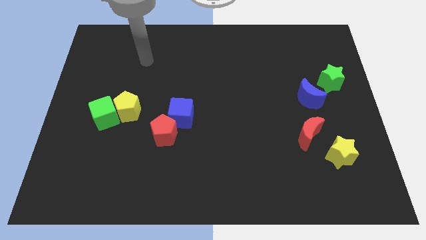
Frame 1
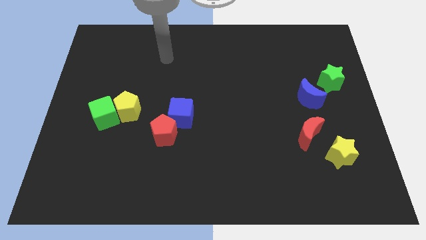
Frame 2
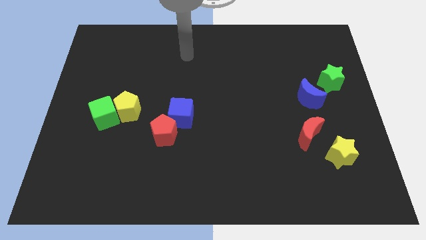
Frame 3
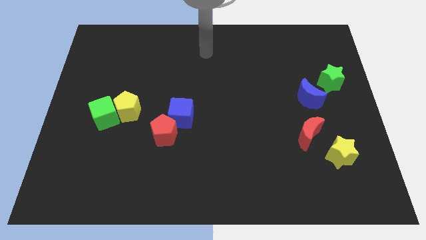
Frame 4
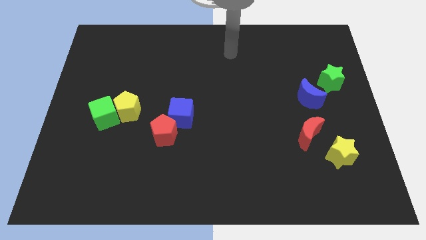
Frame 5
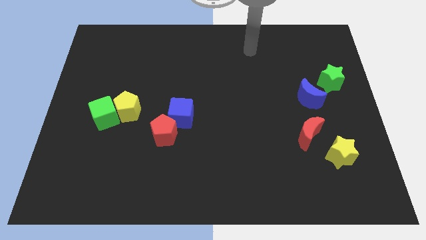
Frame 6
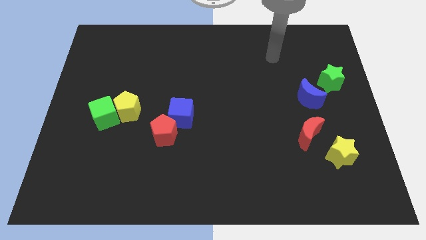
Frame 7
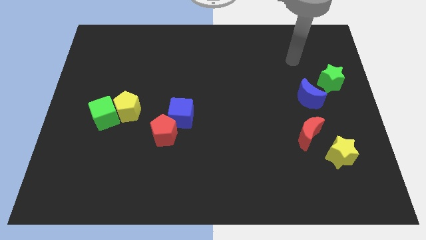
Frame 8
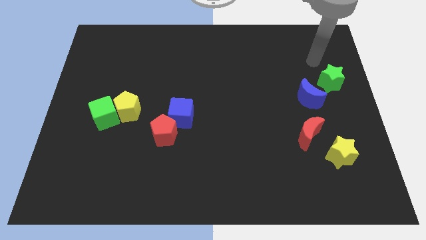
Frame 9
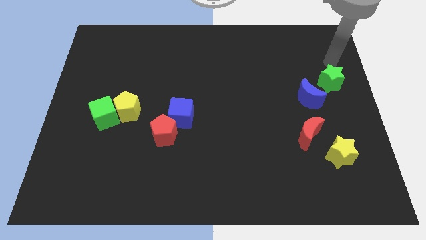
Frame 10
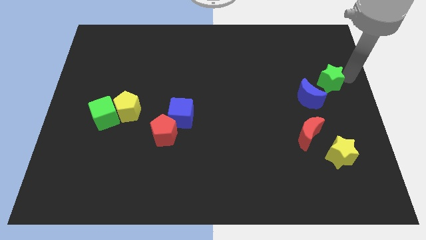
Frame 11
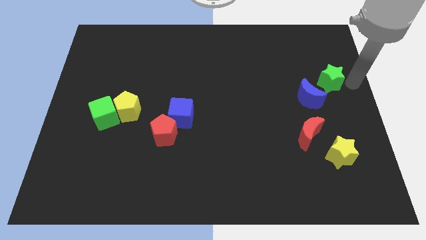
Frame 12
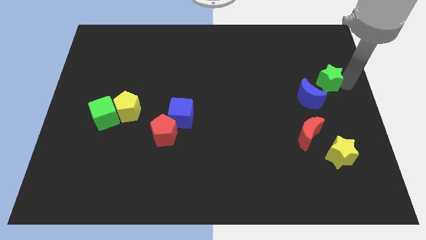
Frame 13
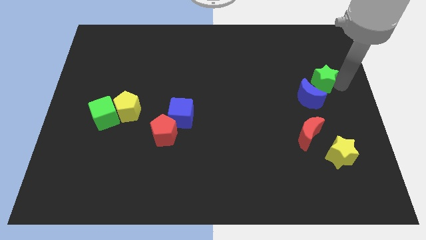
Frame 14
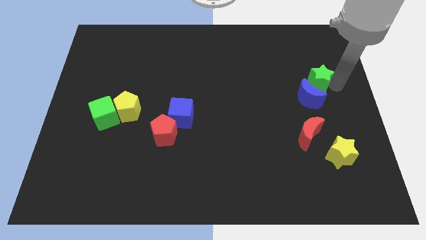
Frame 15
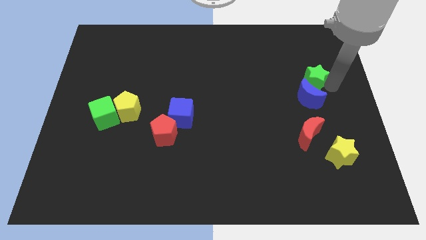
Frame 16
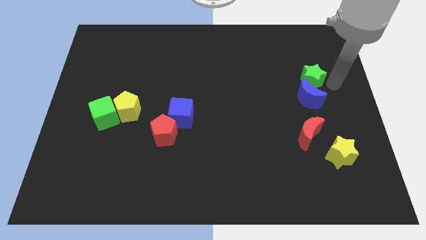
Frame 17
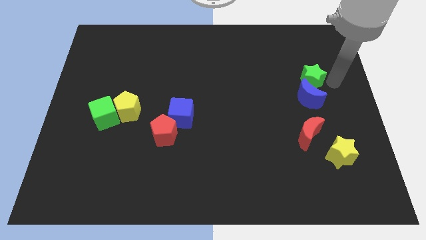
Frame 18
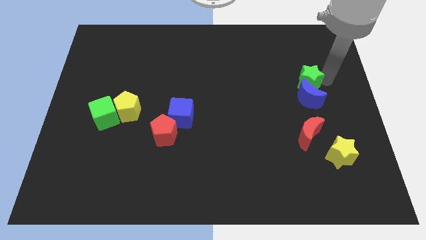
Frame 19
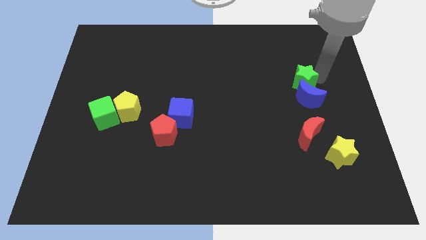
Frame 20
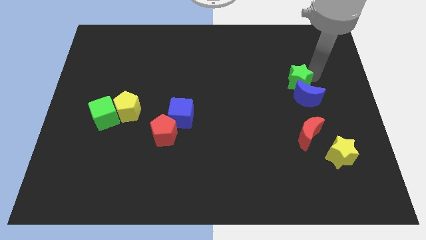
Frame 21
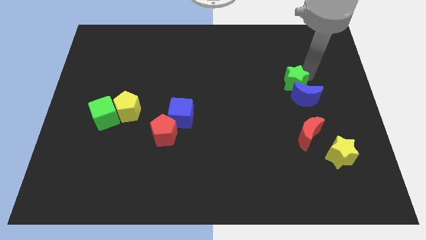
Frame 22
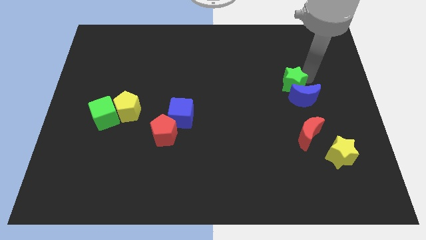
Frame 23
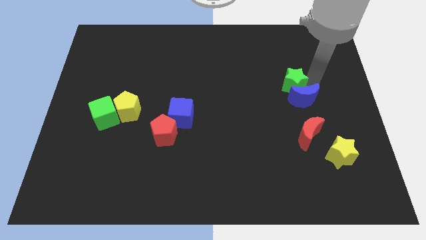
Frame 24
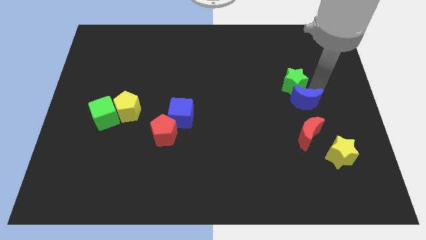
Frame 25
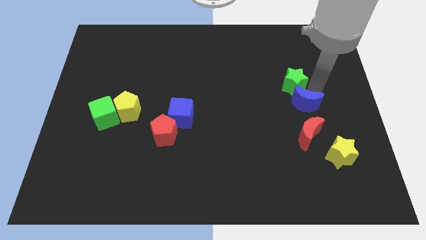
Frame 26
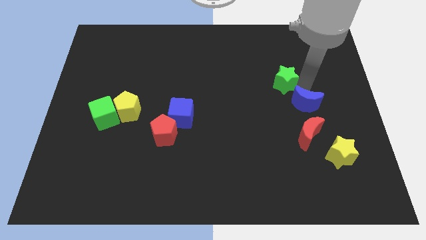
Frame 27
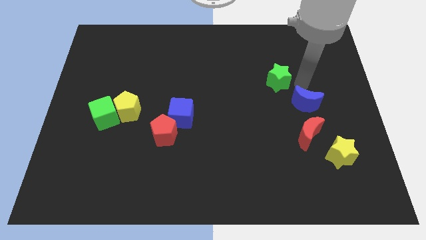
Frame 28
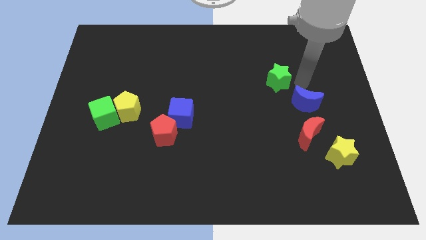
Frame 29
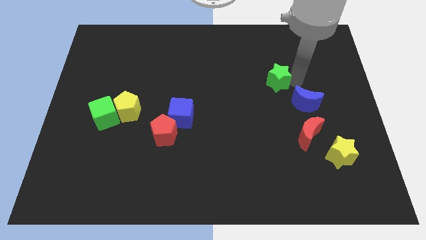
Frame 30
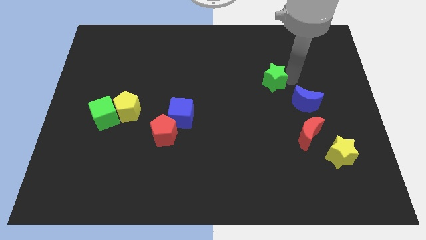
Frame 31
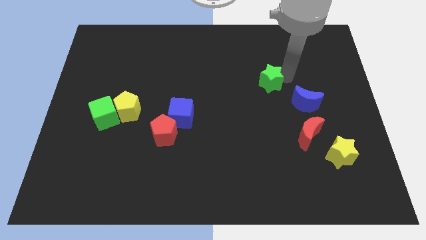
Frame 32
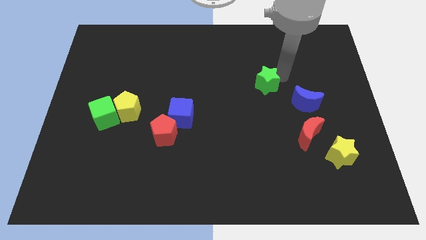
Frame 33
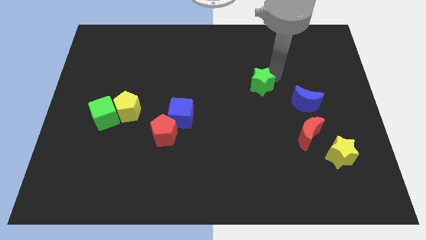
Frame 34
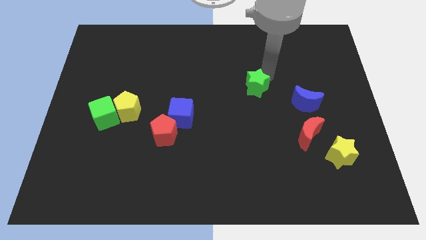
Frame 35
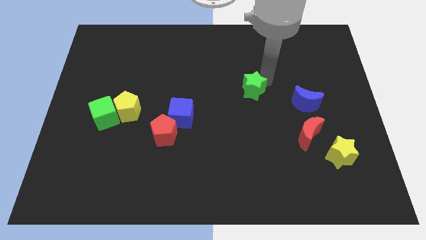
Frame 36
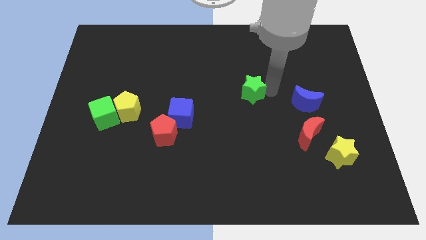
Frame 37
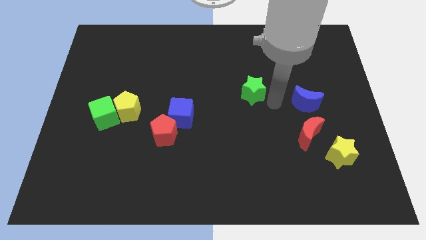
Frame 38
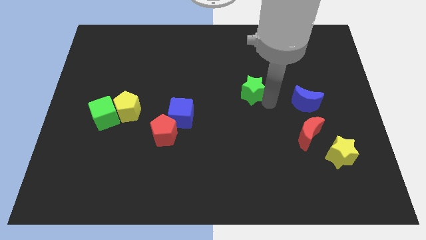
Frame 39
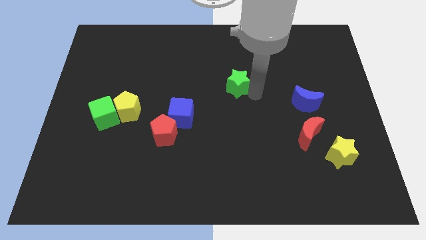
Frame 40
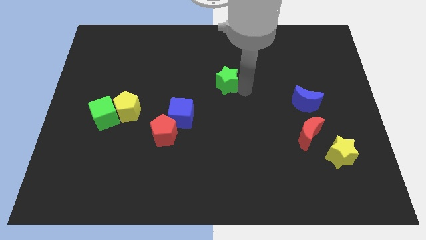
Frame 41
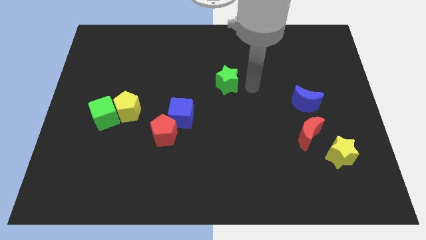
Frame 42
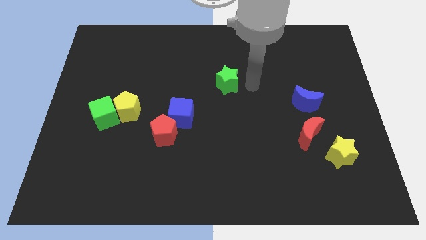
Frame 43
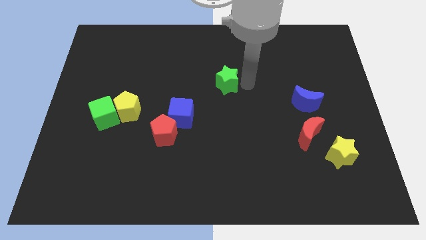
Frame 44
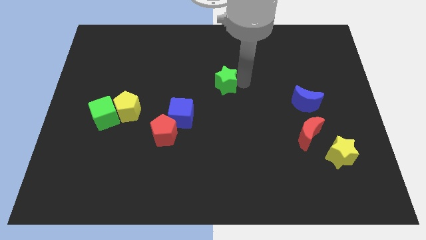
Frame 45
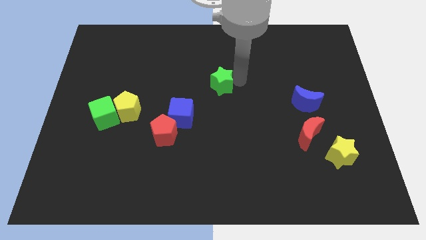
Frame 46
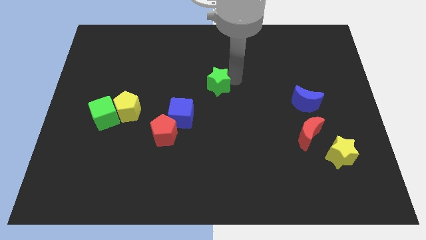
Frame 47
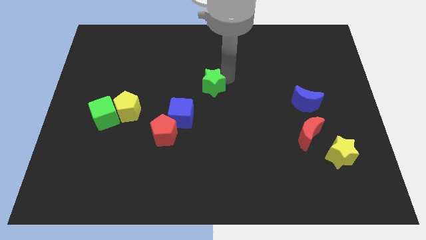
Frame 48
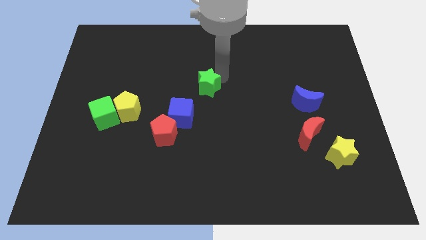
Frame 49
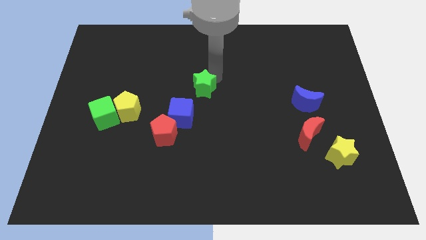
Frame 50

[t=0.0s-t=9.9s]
put the green star to the top side of the blue cube

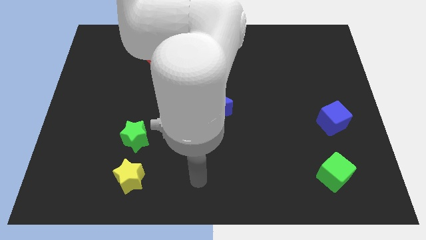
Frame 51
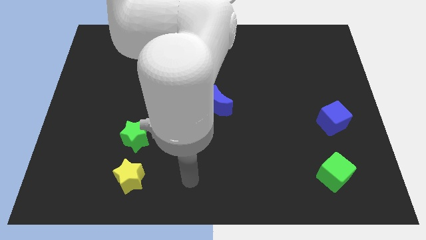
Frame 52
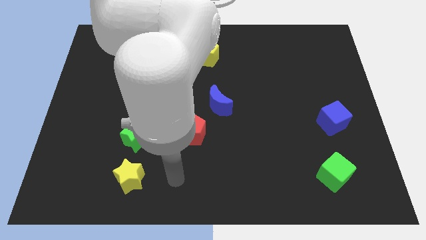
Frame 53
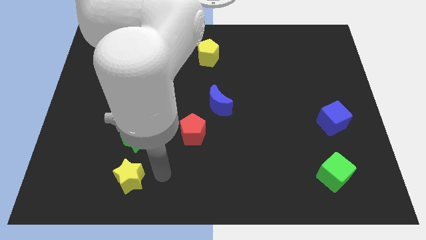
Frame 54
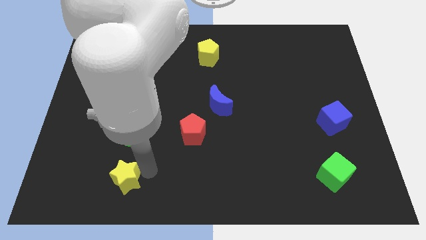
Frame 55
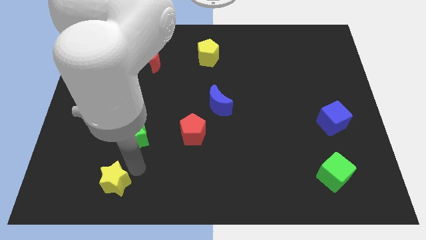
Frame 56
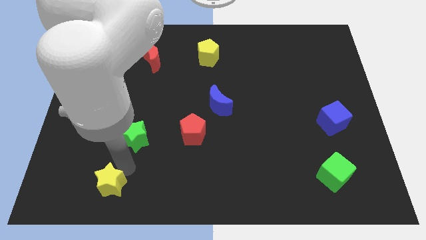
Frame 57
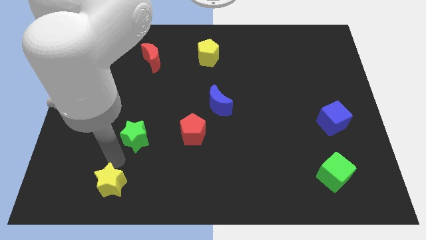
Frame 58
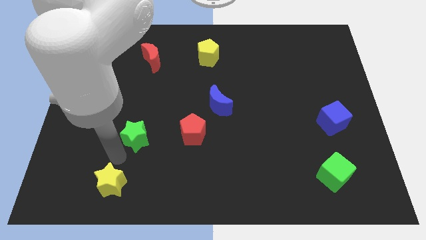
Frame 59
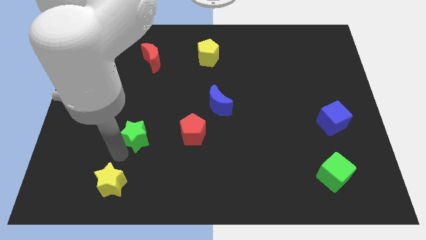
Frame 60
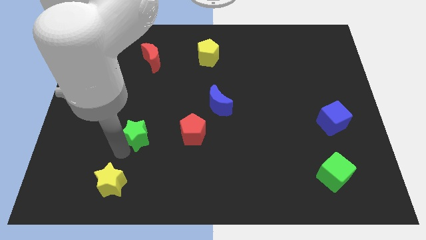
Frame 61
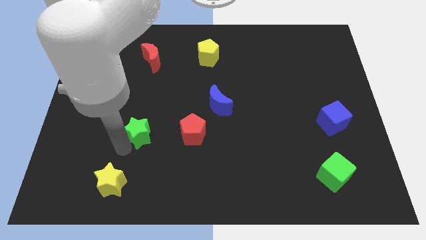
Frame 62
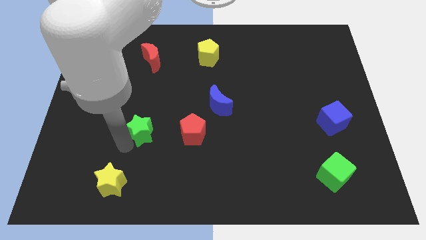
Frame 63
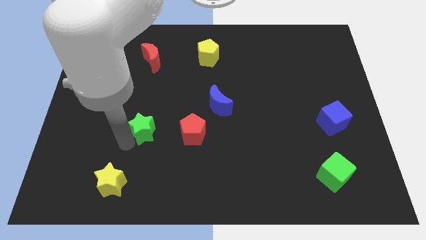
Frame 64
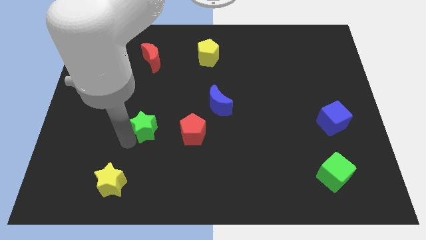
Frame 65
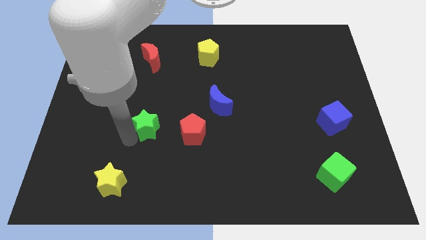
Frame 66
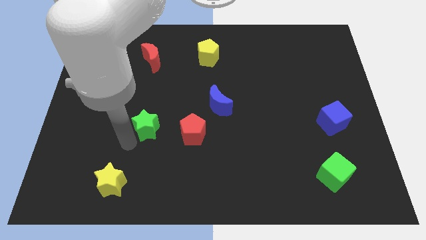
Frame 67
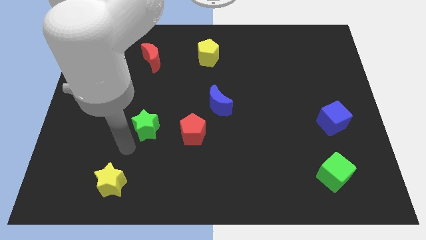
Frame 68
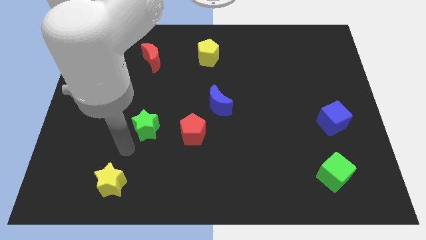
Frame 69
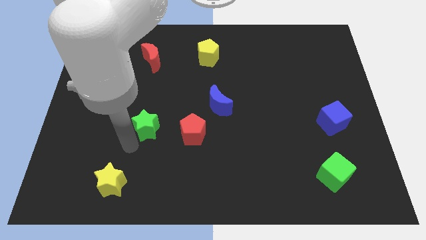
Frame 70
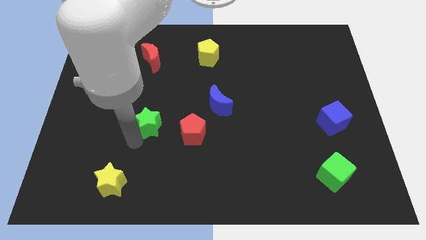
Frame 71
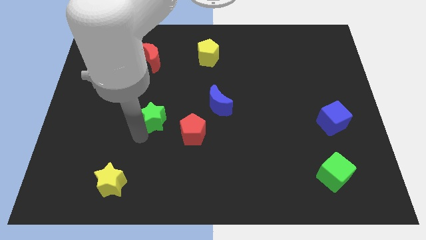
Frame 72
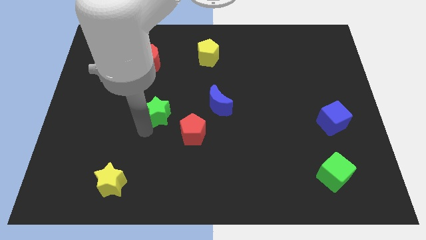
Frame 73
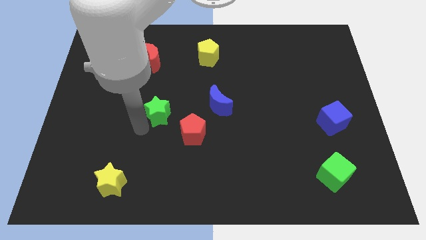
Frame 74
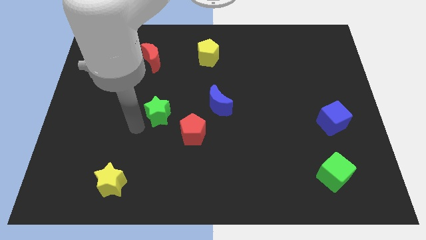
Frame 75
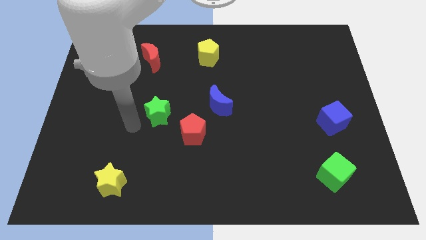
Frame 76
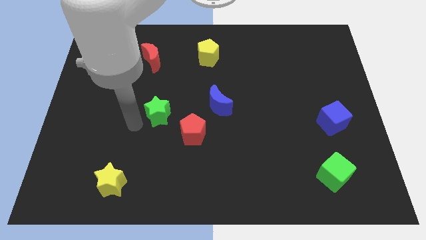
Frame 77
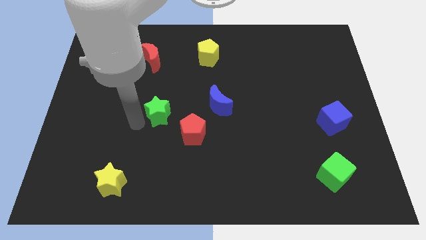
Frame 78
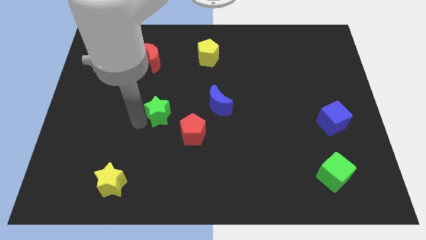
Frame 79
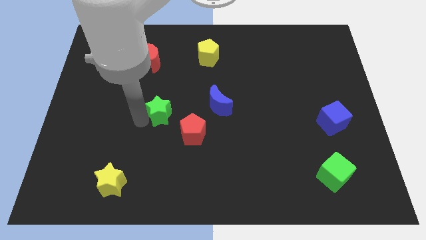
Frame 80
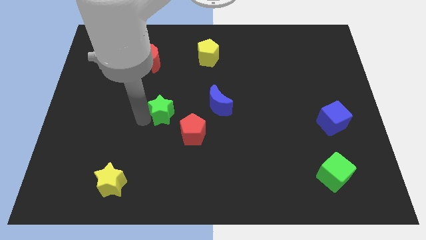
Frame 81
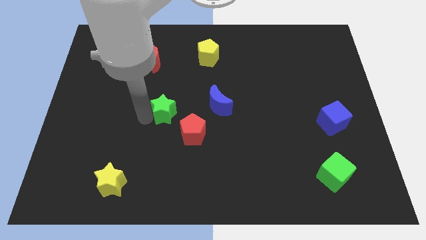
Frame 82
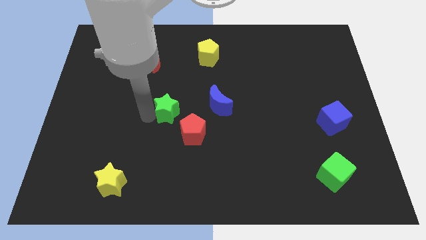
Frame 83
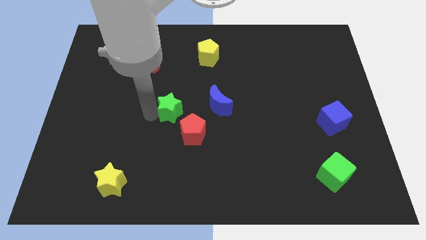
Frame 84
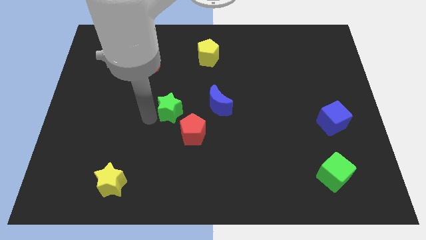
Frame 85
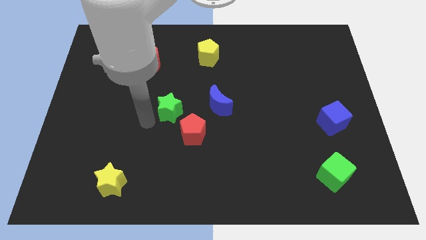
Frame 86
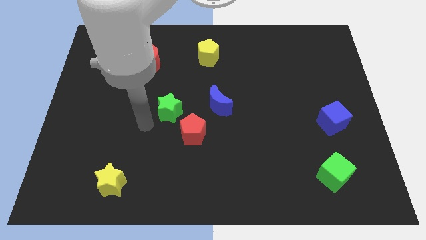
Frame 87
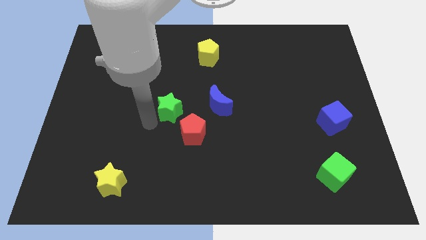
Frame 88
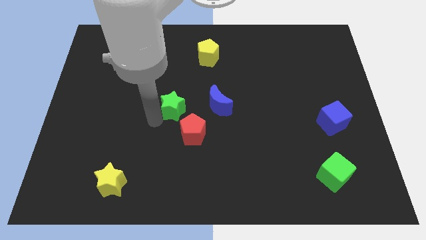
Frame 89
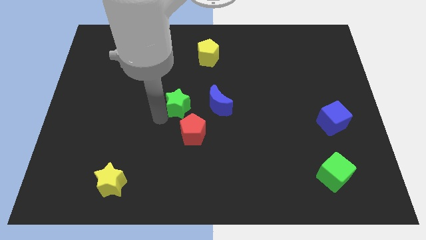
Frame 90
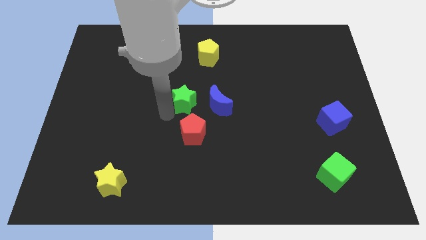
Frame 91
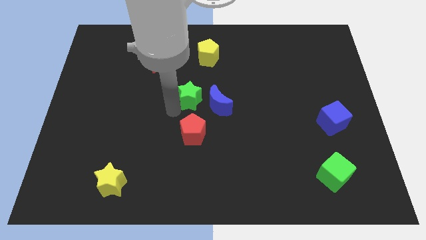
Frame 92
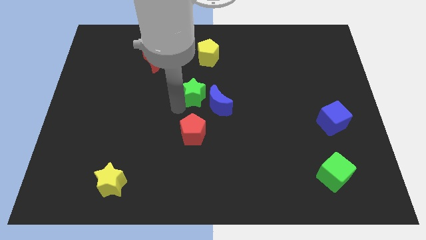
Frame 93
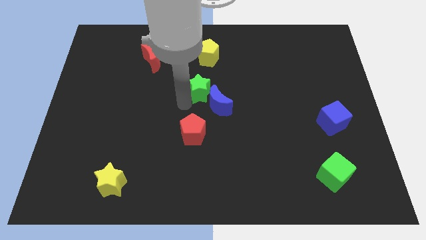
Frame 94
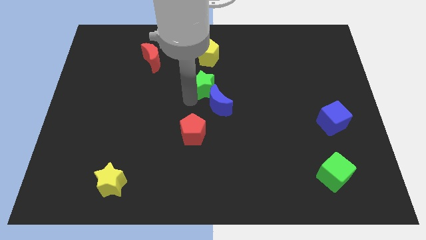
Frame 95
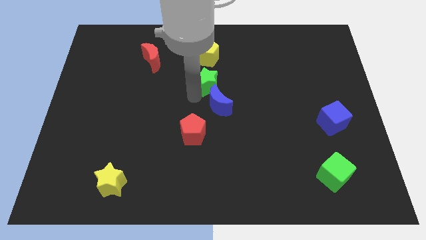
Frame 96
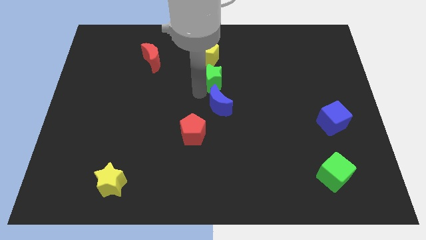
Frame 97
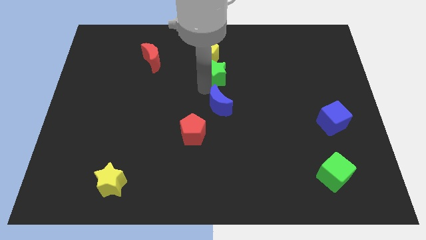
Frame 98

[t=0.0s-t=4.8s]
move the green star diagonally down and to the right of the yellow pentagon
